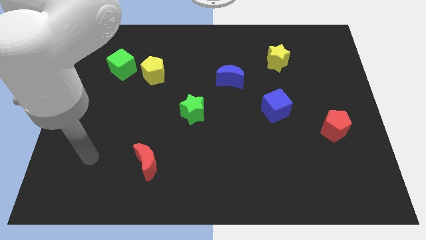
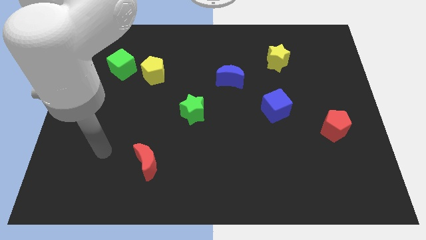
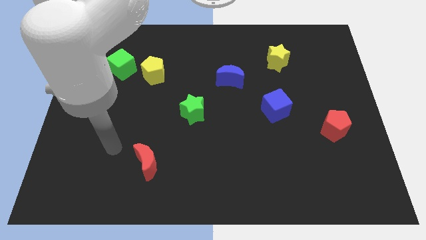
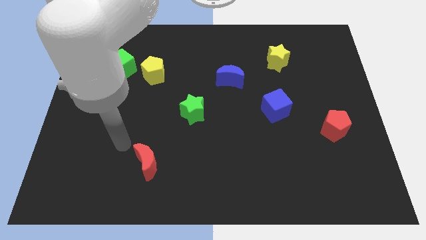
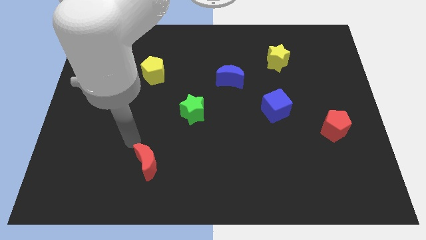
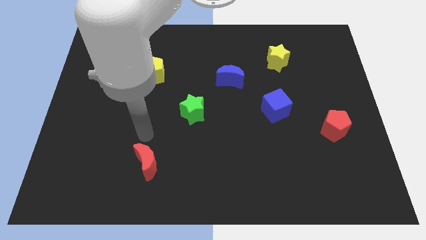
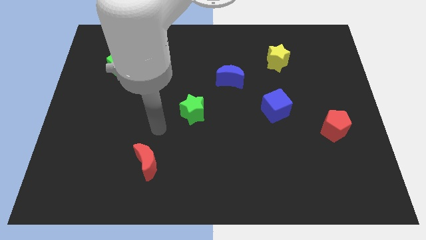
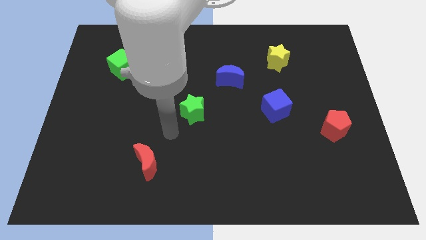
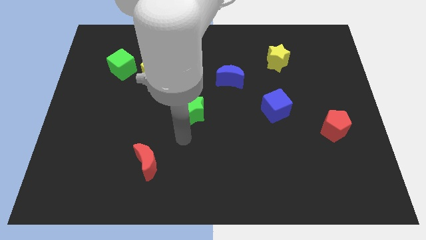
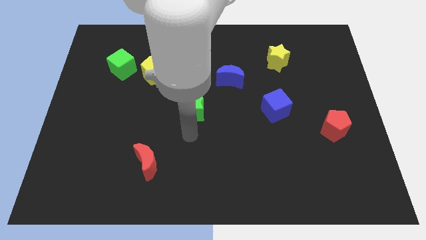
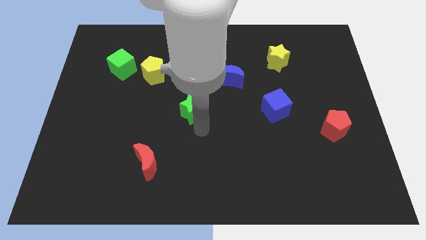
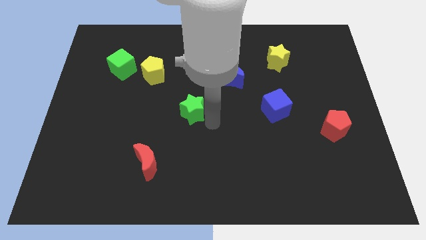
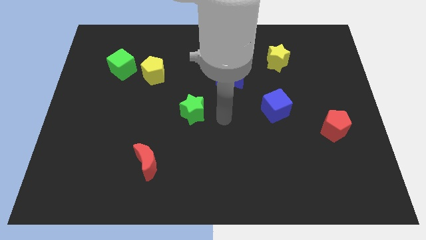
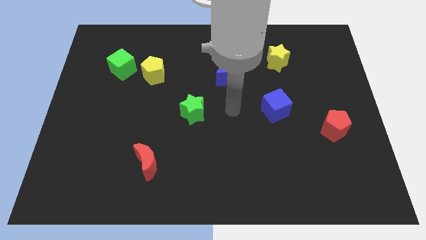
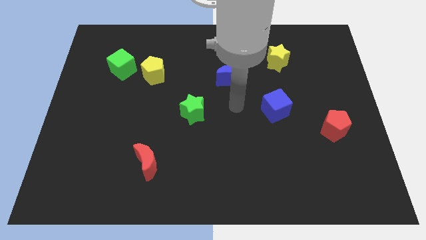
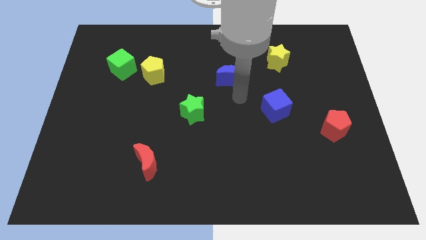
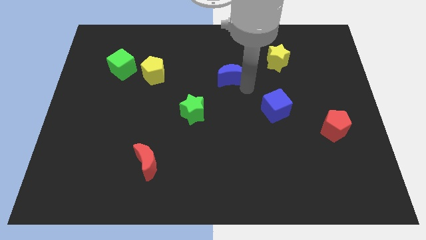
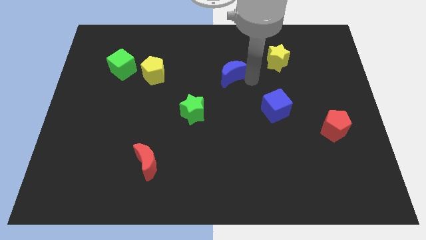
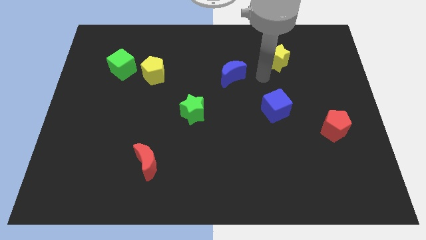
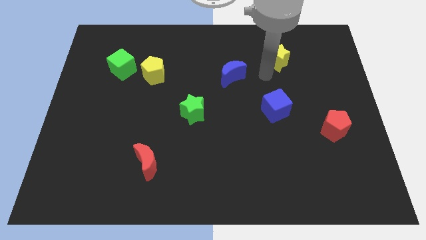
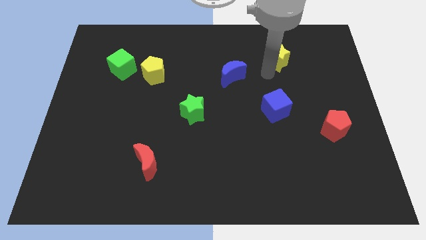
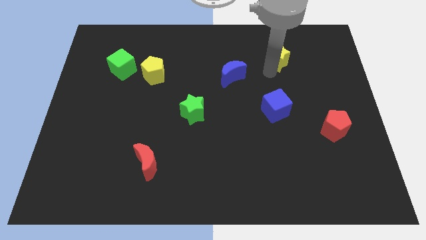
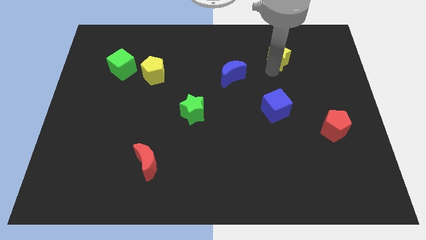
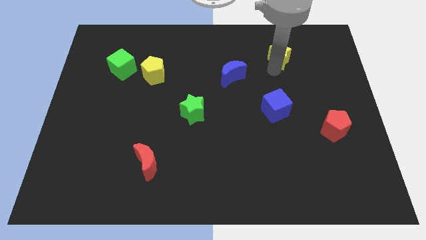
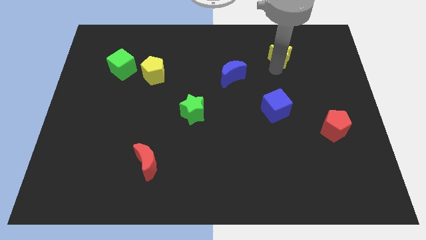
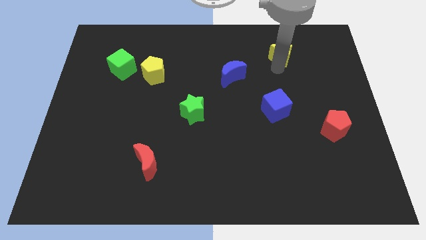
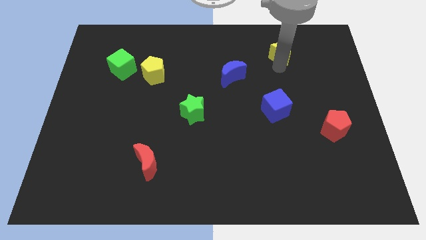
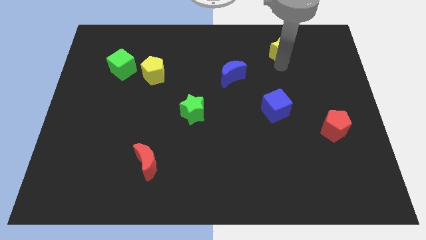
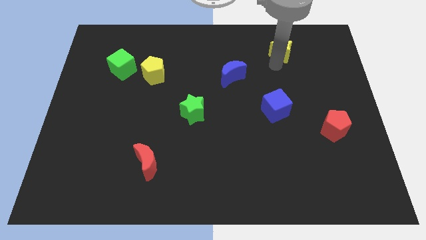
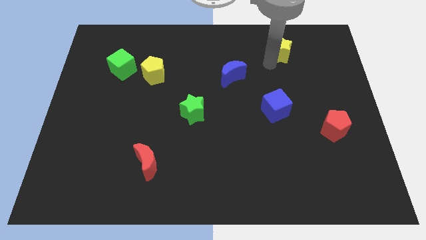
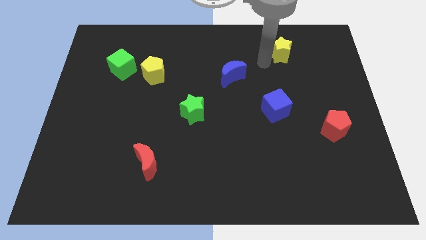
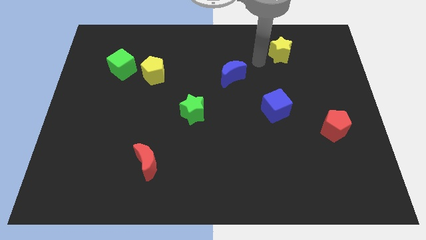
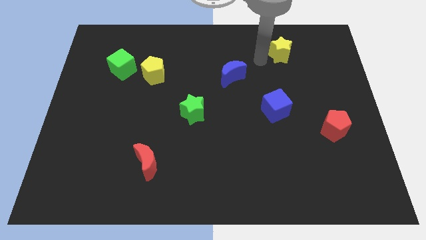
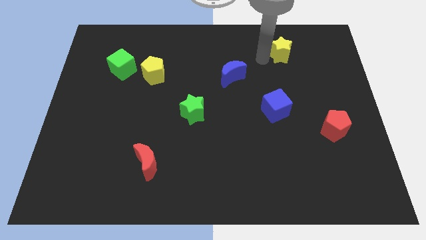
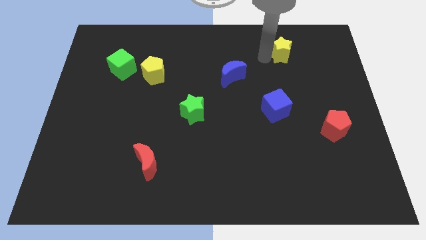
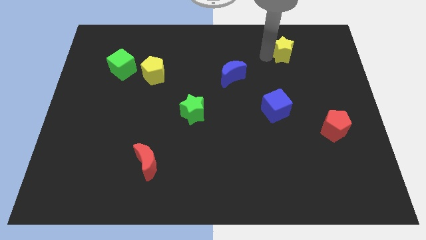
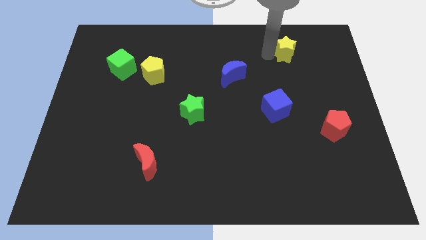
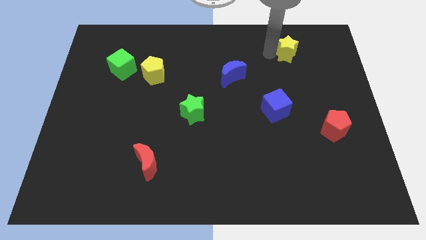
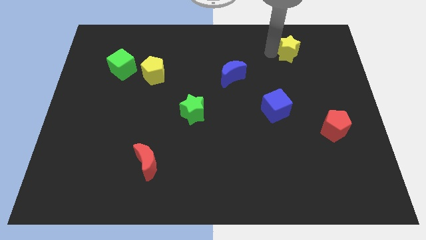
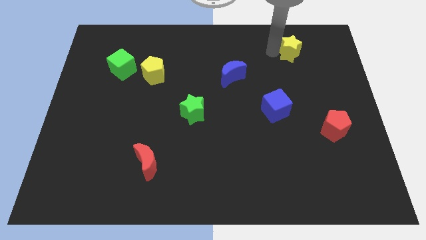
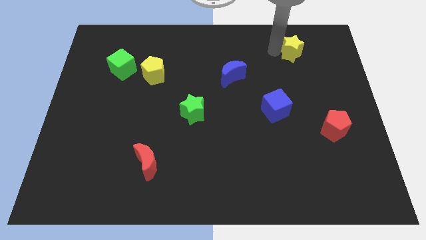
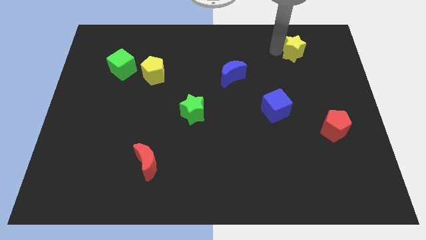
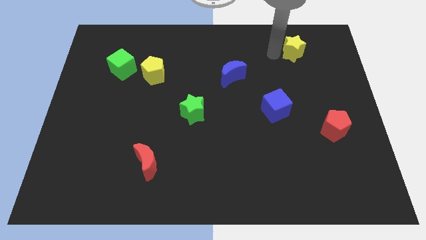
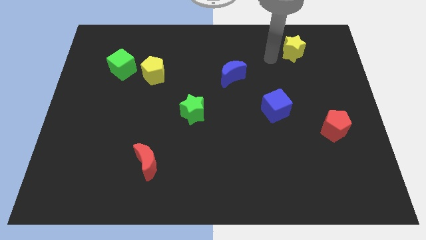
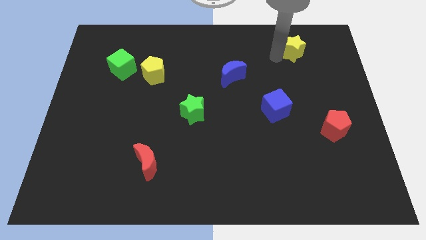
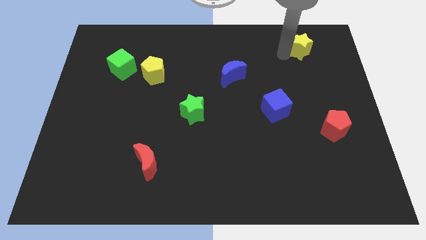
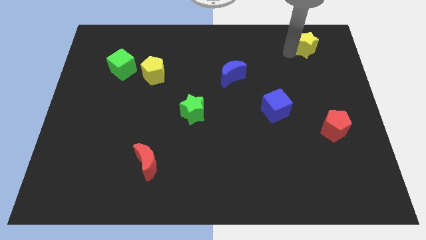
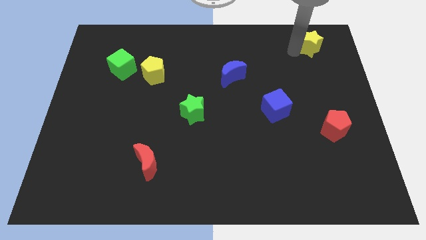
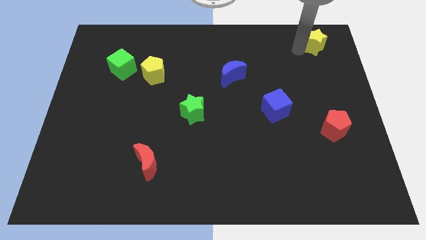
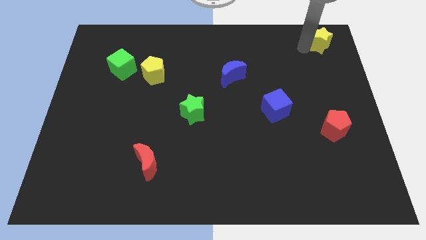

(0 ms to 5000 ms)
move the yellow star to the top right

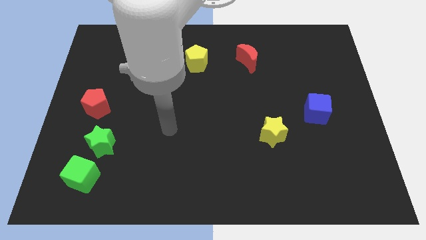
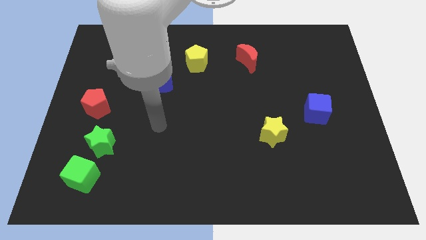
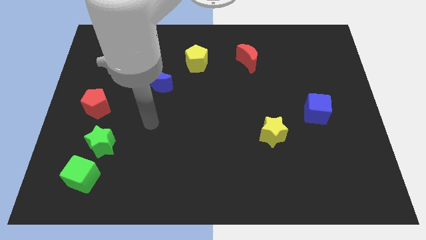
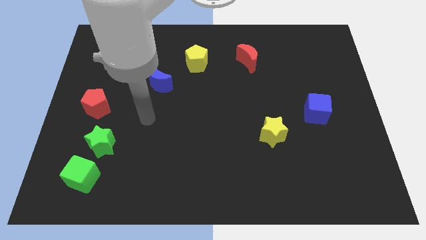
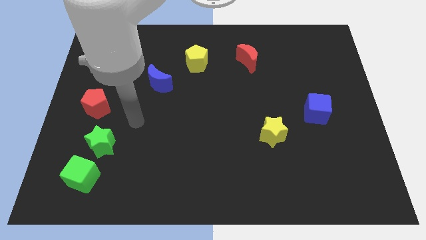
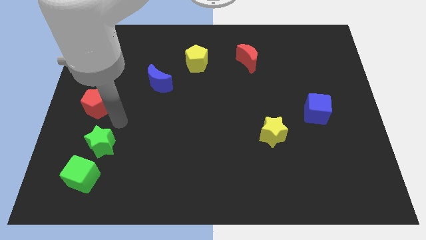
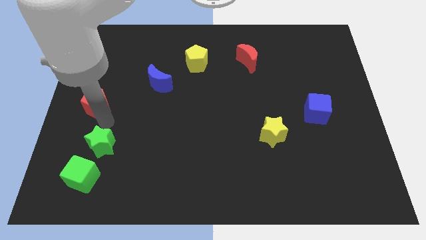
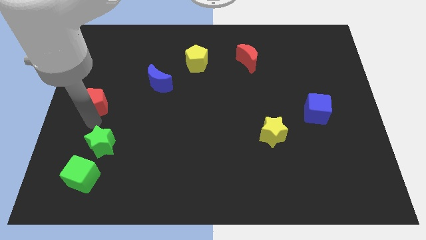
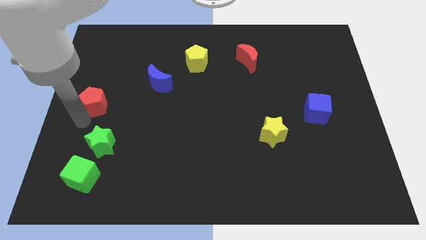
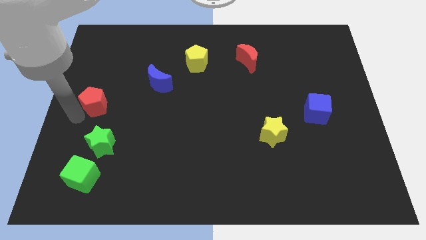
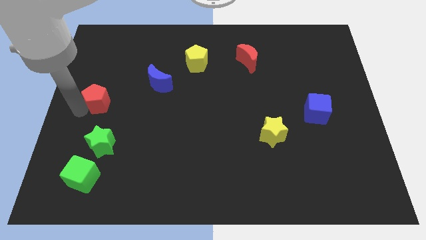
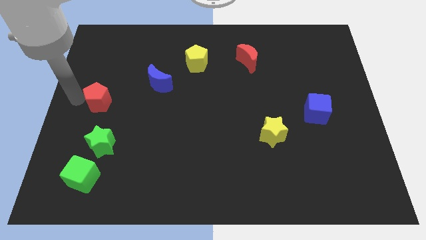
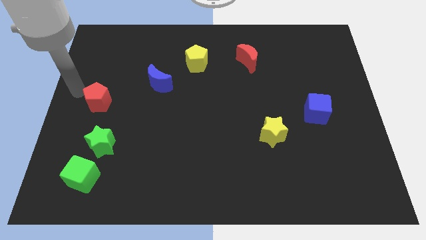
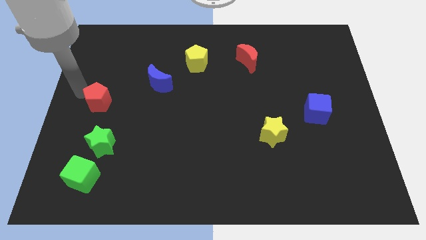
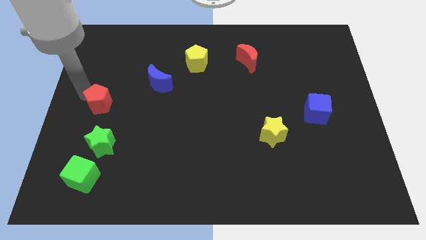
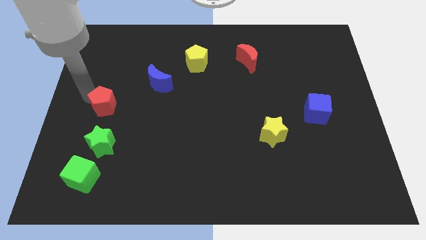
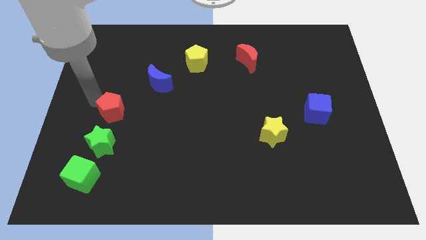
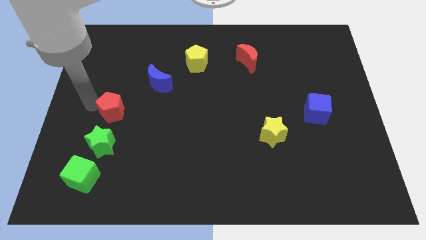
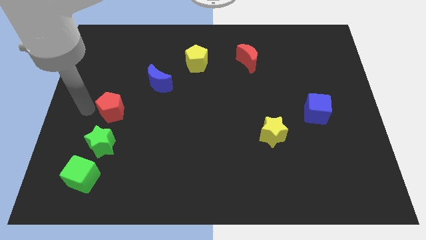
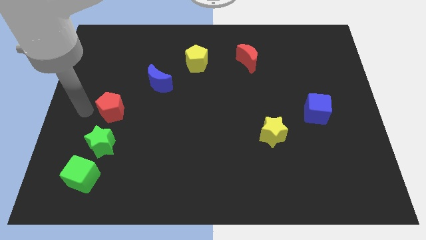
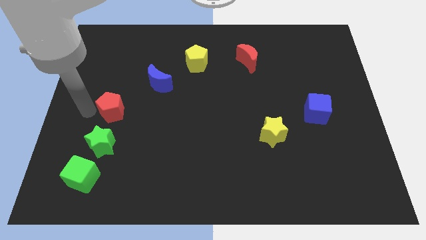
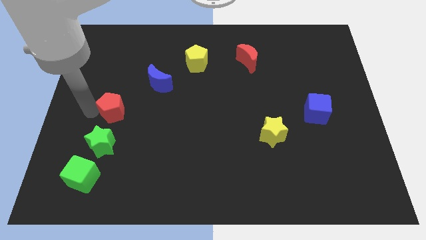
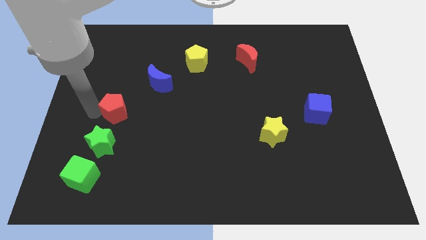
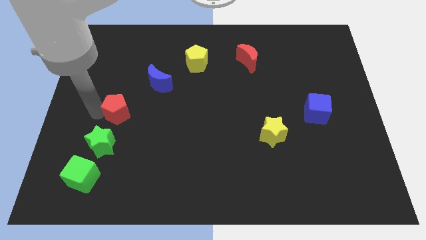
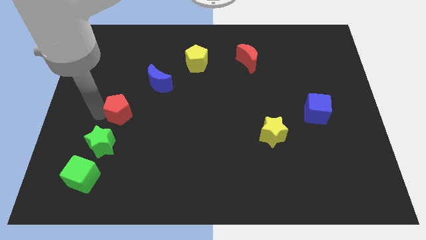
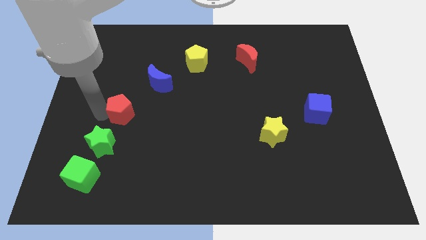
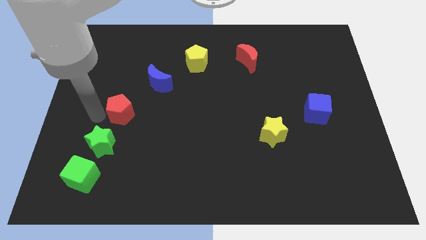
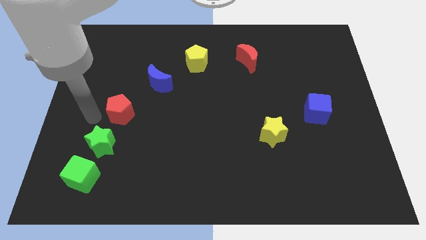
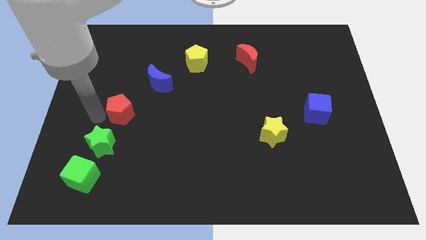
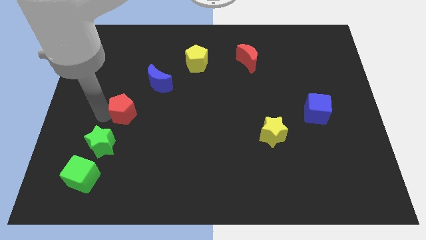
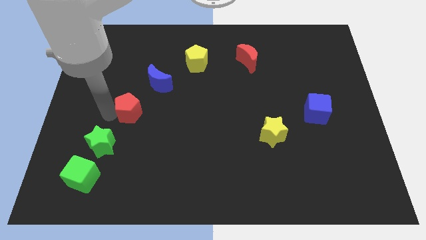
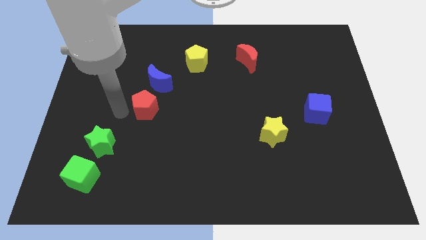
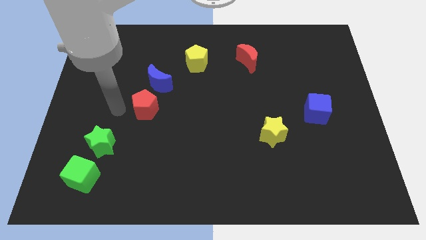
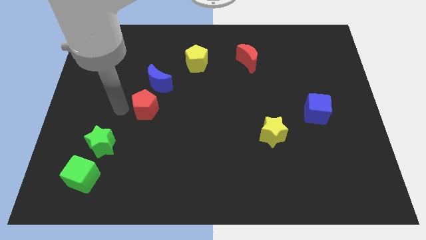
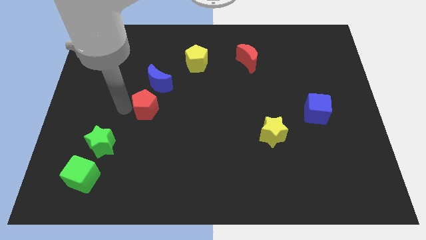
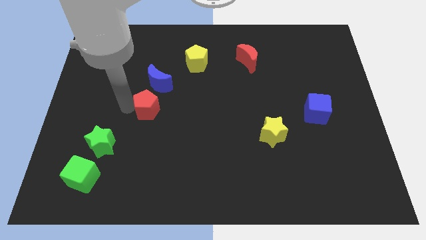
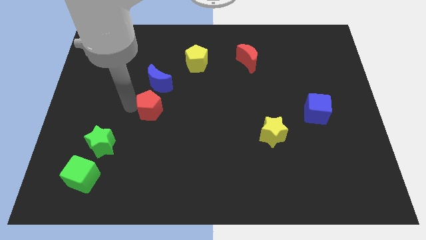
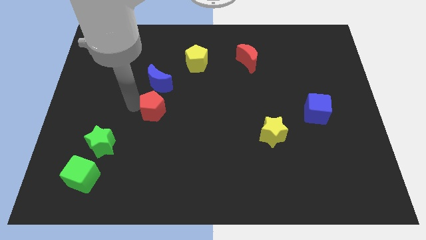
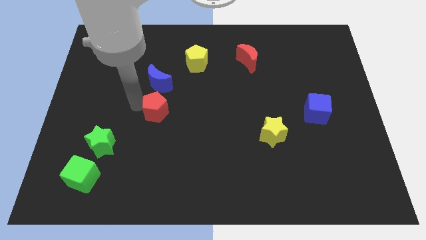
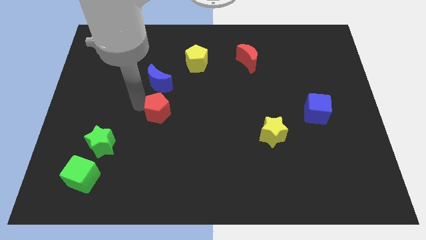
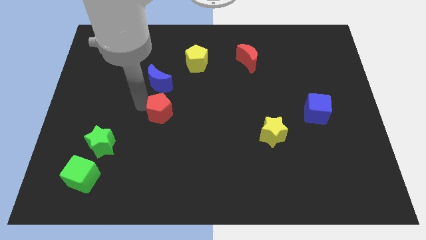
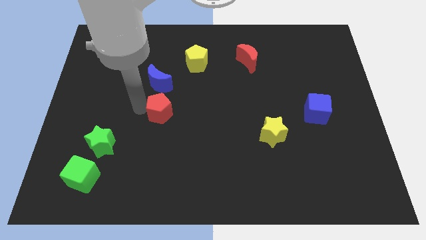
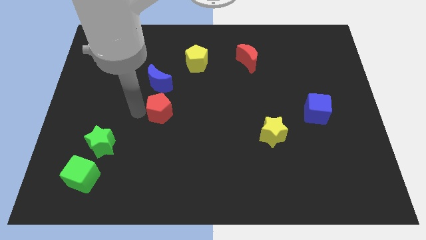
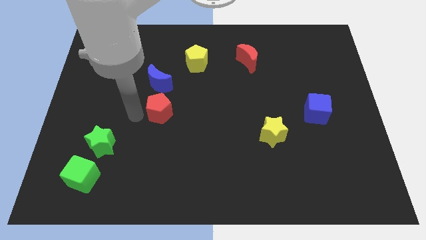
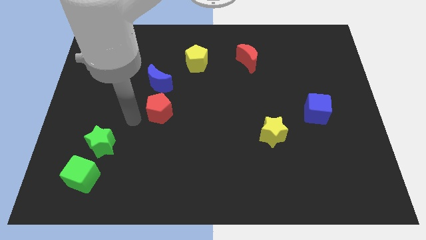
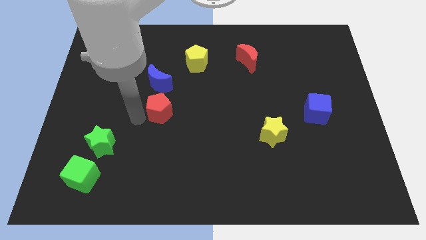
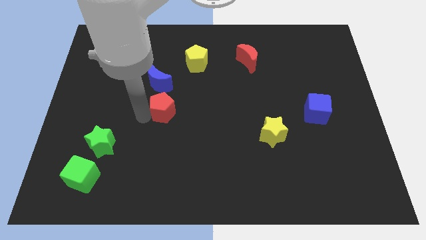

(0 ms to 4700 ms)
put the red pentagon to the middle
